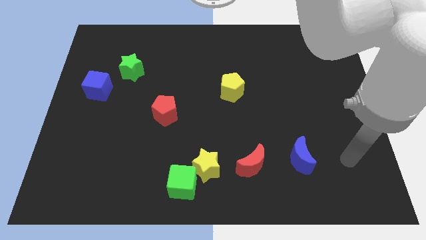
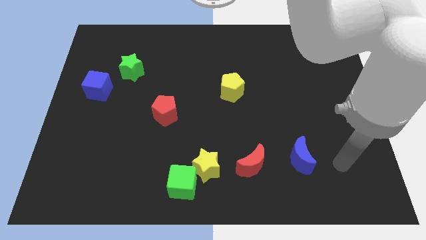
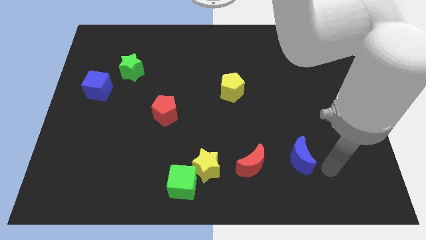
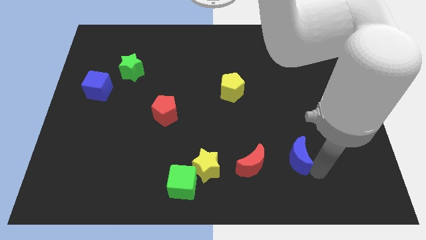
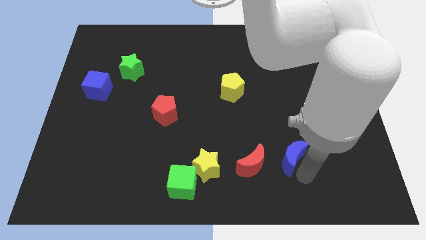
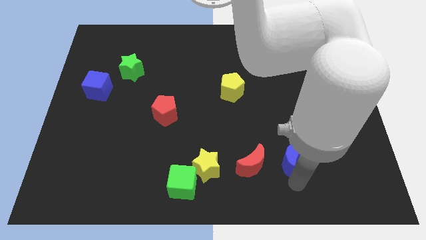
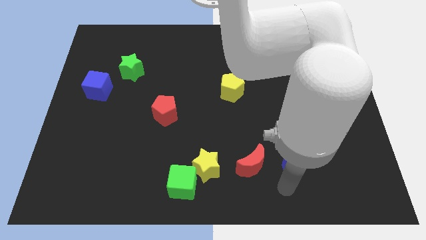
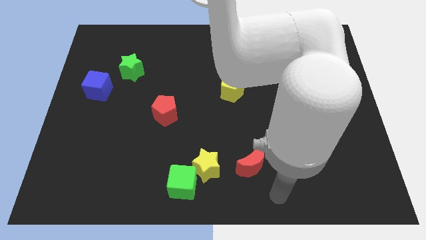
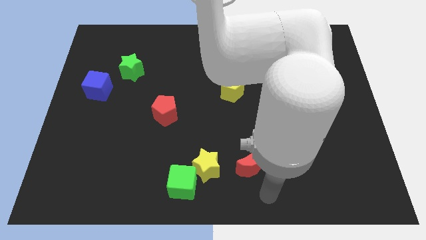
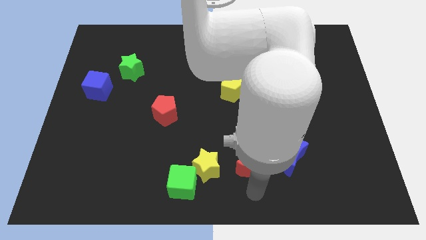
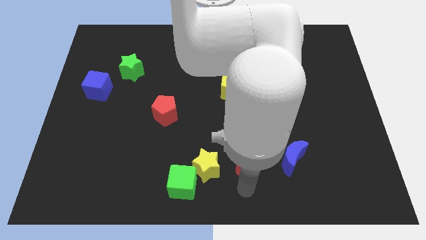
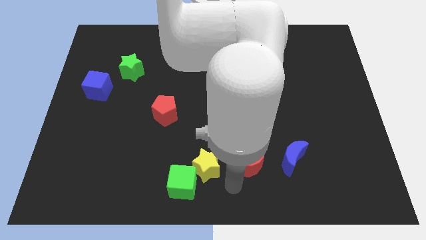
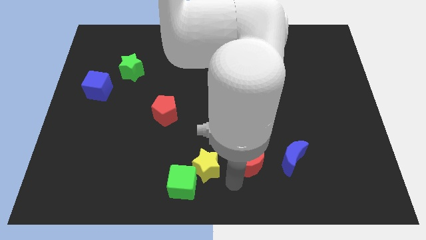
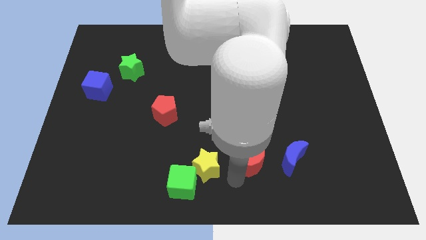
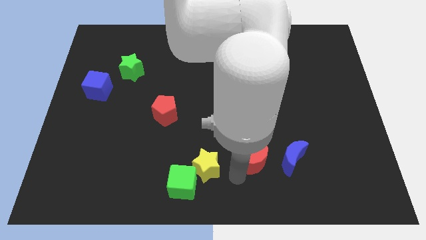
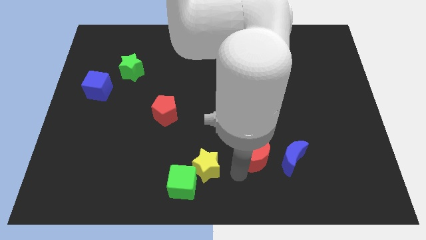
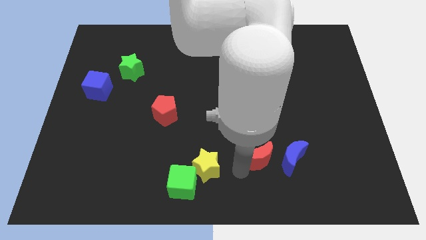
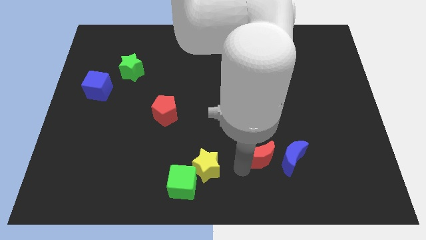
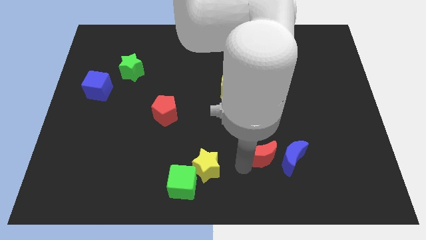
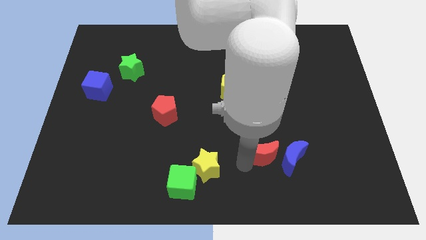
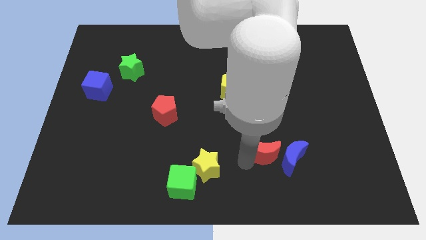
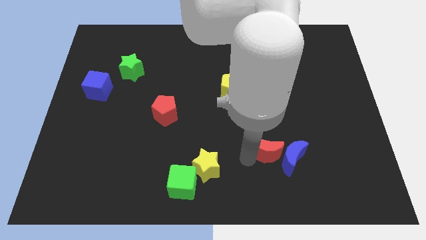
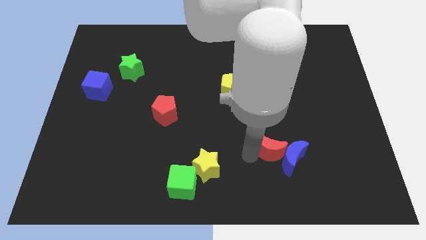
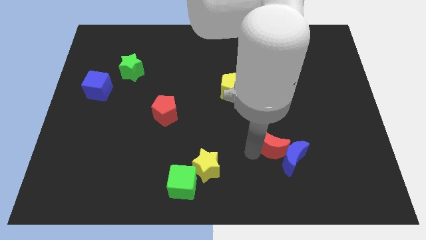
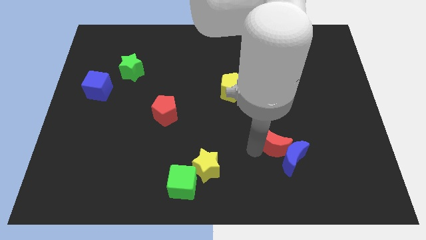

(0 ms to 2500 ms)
slightly slide the red moon up and then right

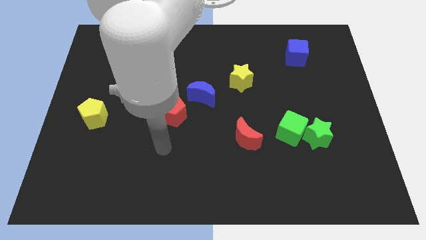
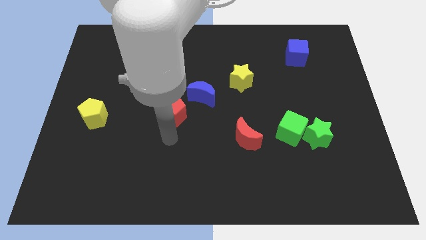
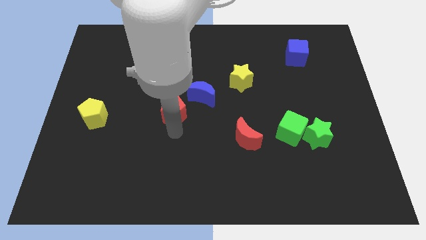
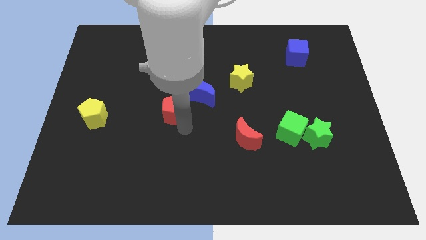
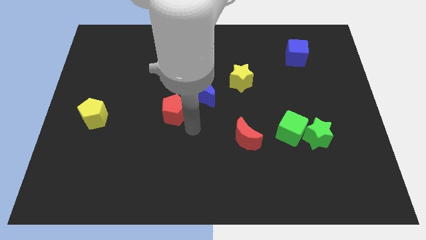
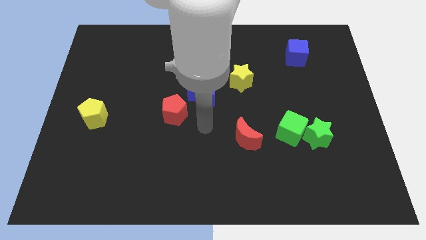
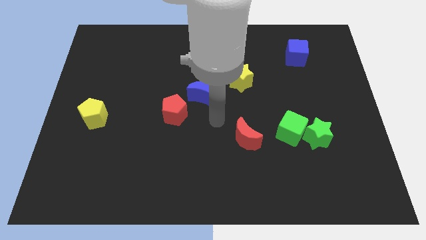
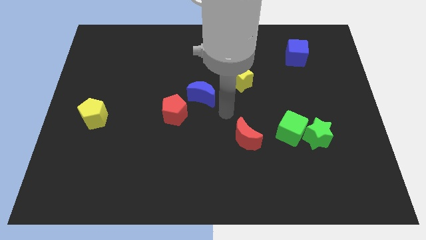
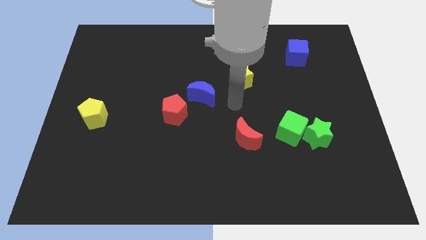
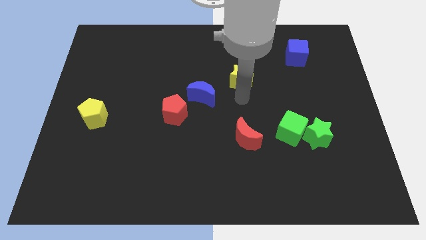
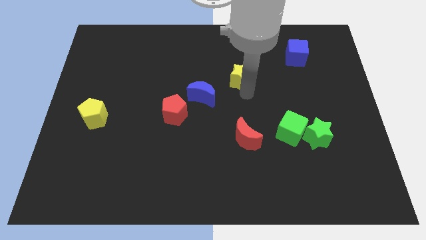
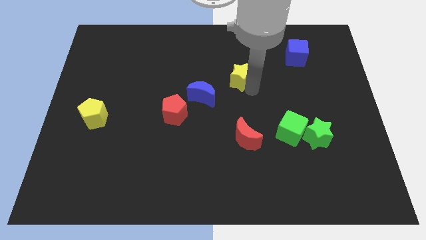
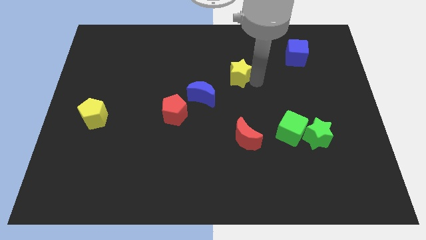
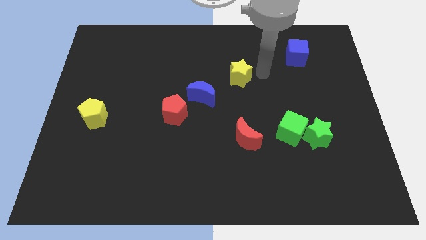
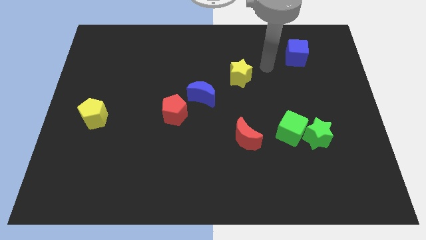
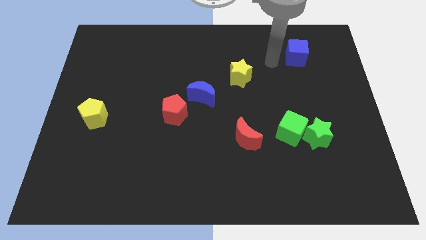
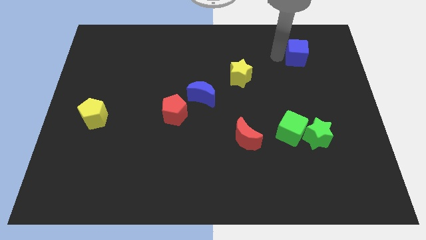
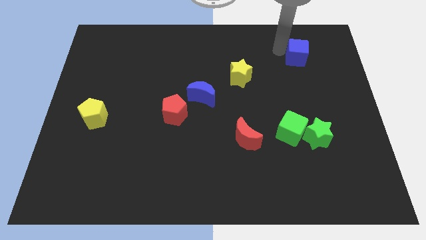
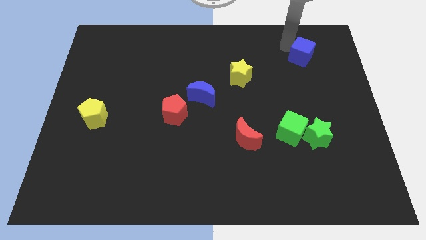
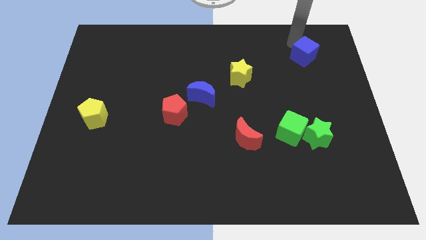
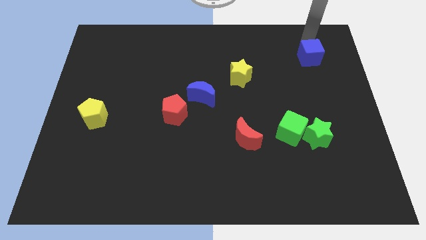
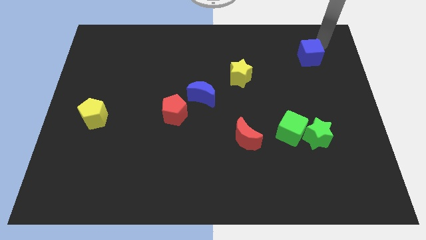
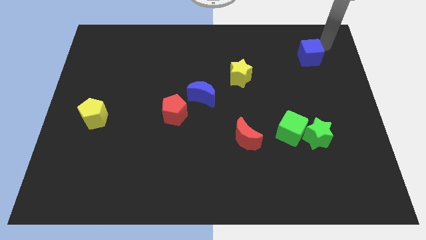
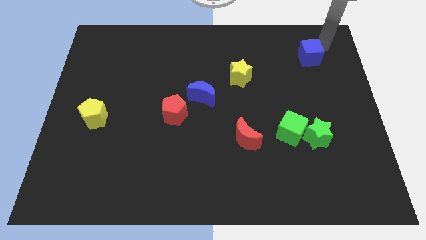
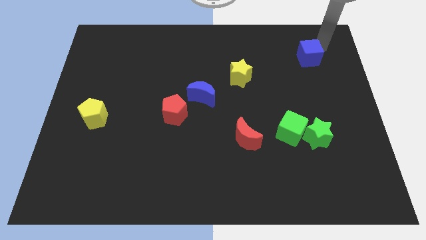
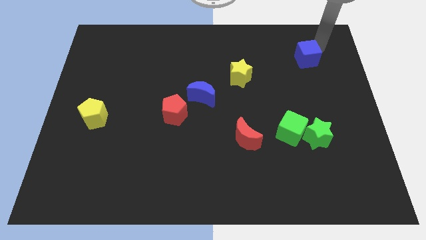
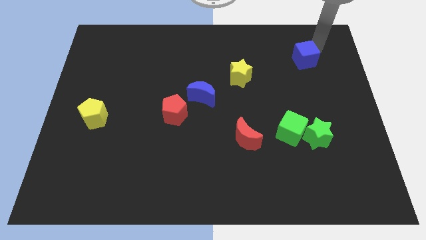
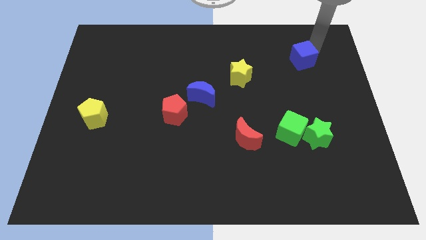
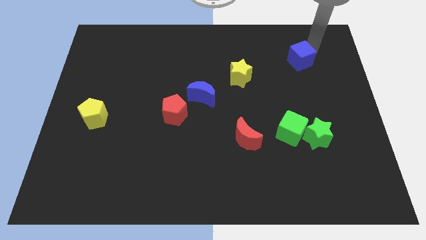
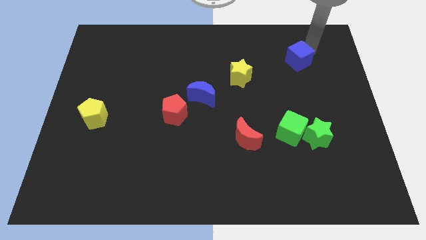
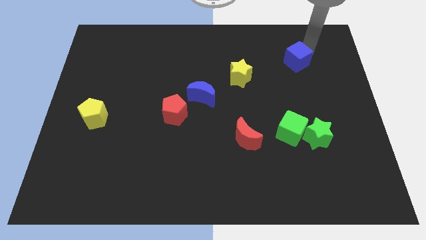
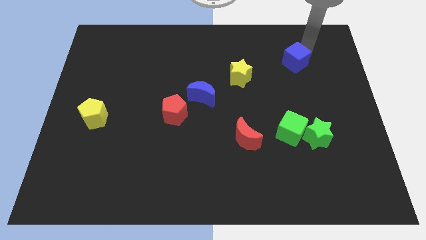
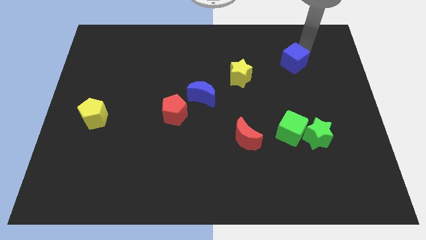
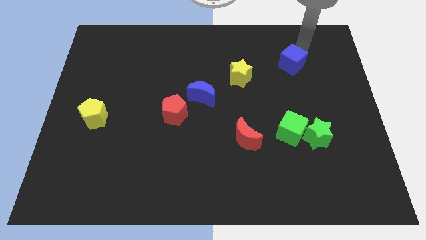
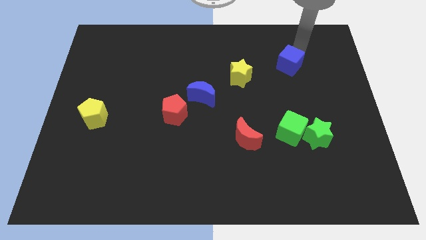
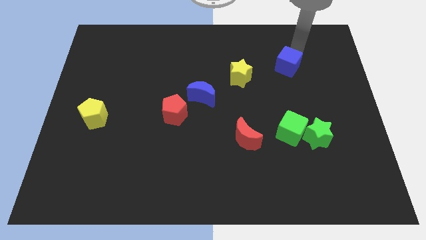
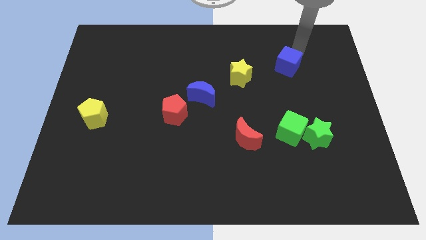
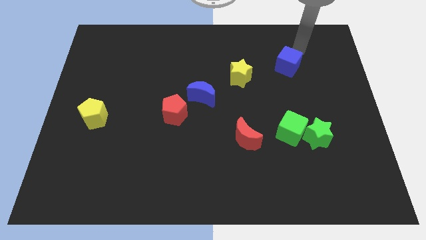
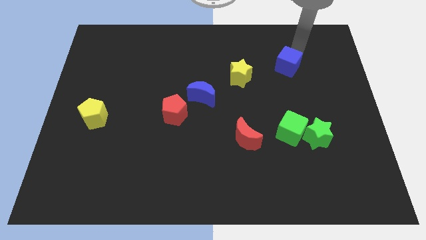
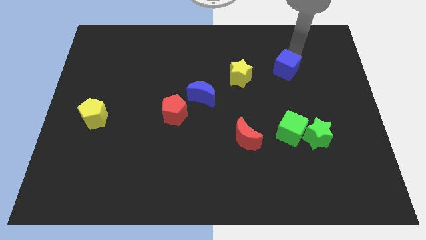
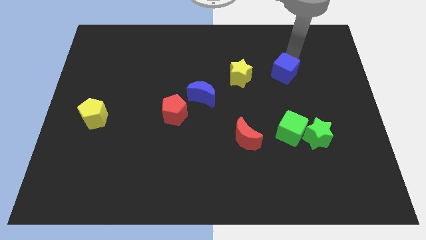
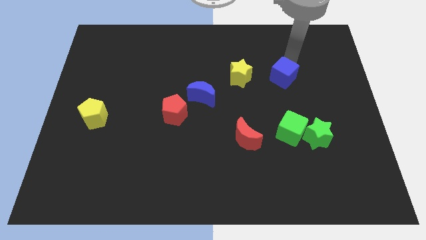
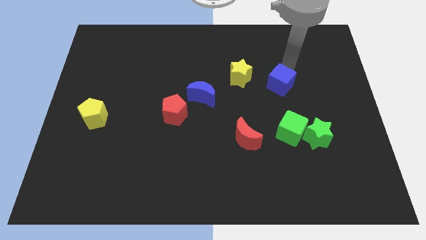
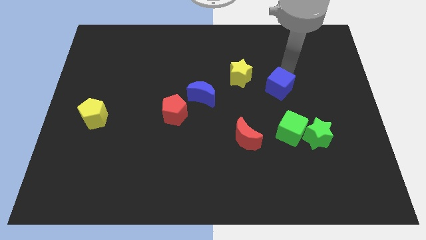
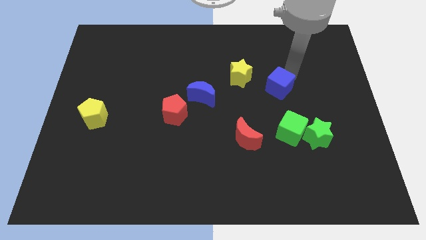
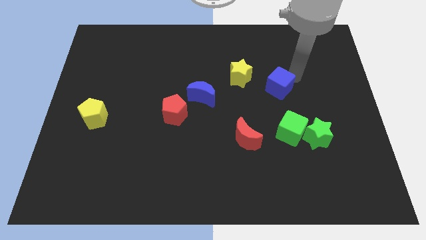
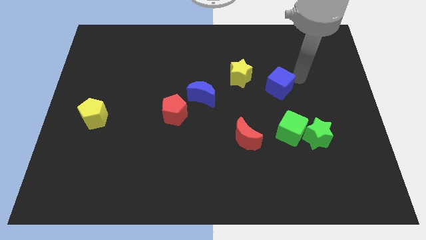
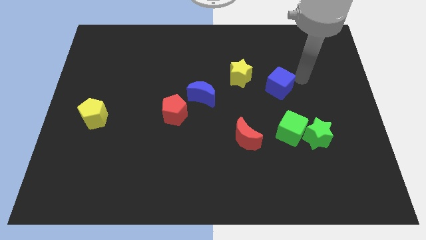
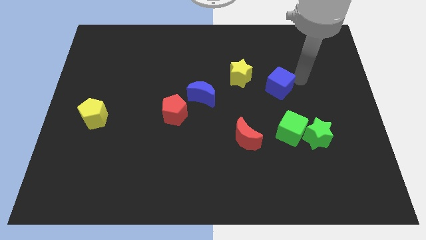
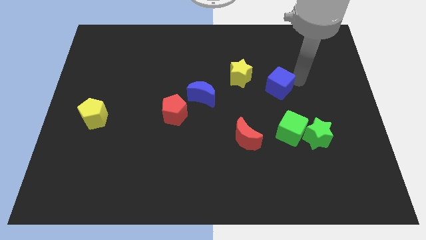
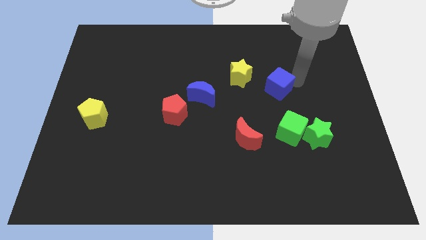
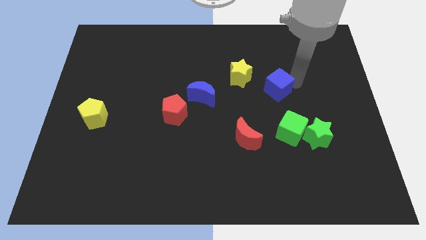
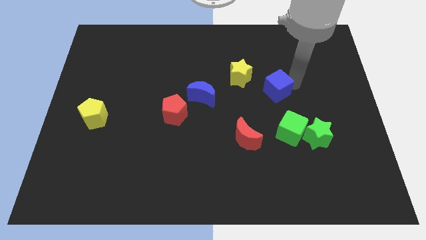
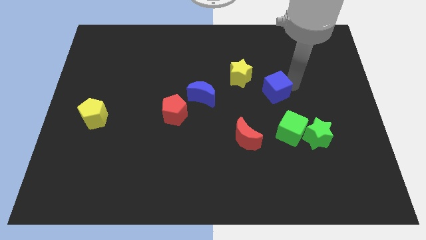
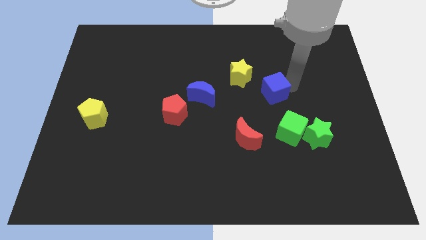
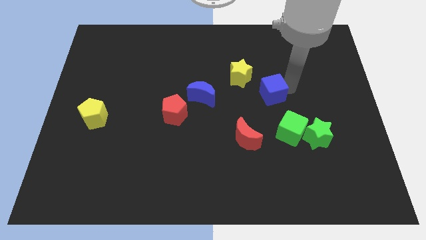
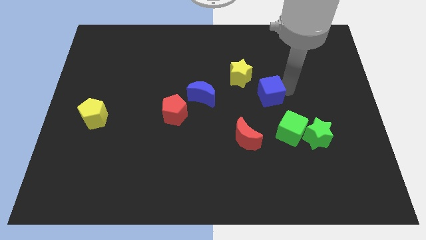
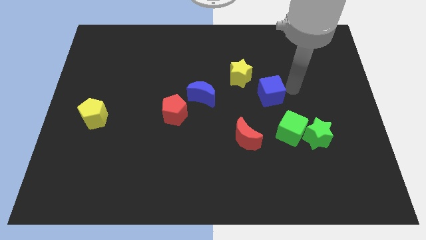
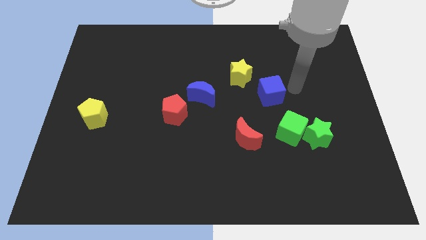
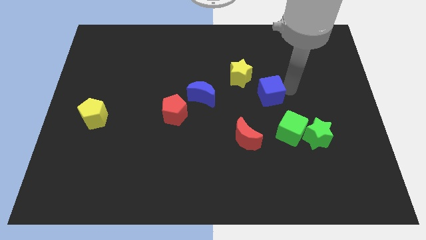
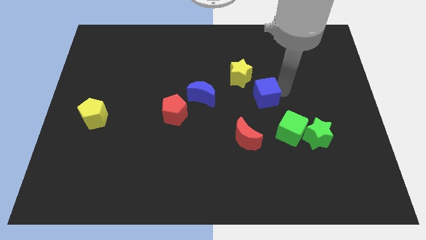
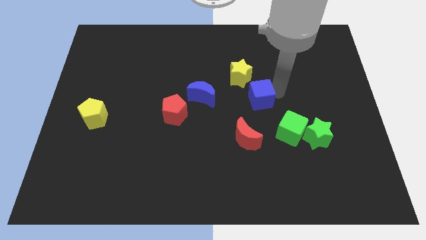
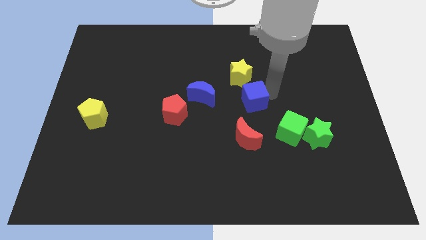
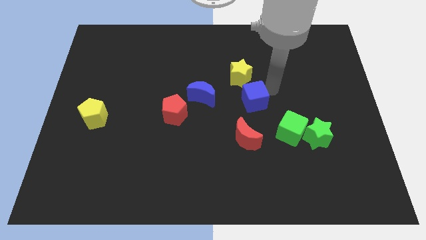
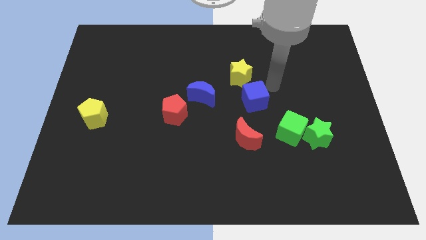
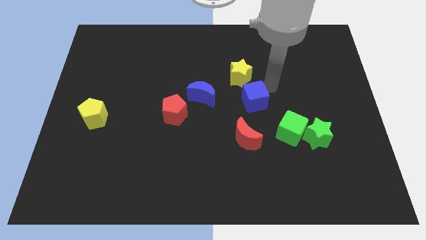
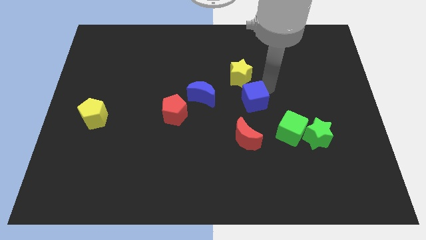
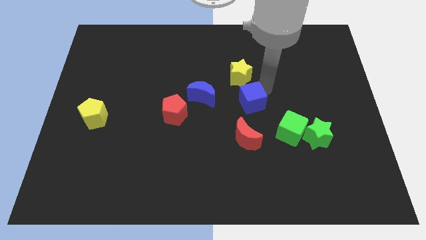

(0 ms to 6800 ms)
push the blue cube diagonally downwards and left
